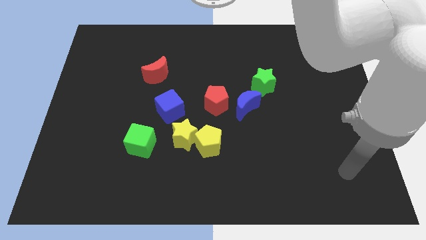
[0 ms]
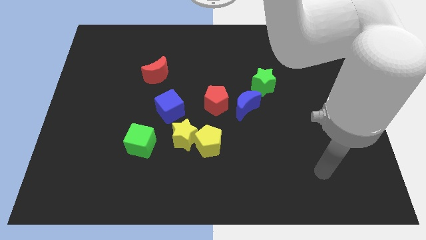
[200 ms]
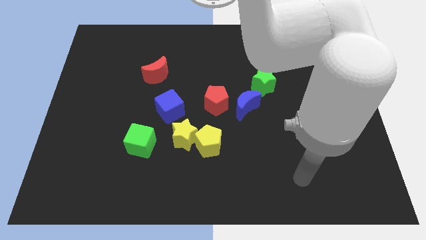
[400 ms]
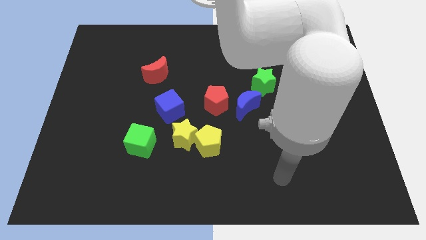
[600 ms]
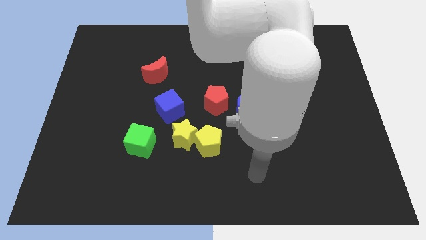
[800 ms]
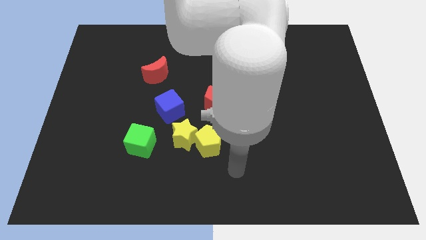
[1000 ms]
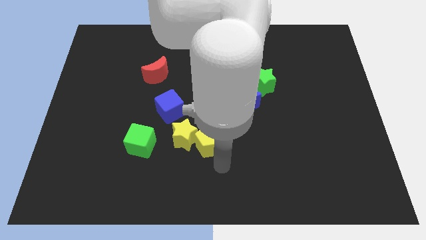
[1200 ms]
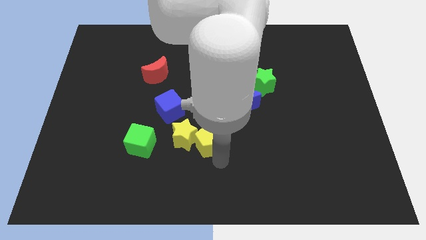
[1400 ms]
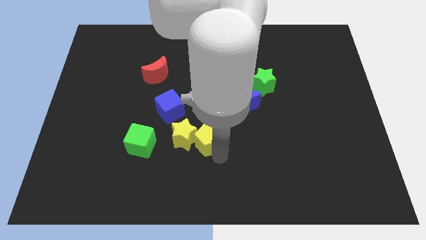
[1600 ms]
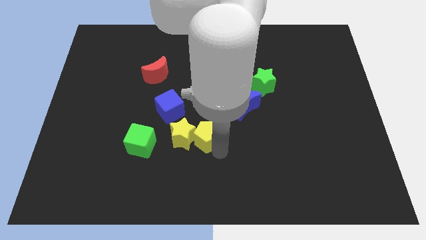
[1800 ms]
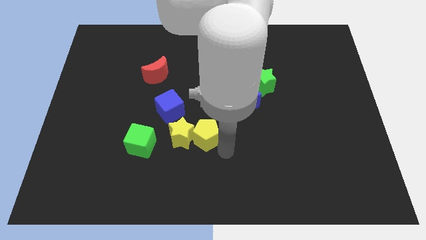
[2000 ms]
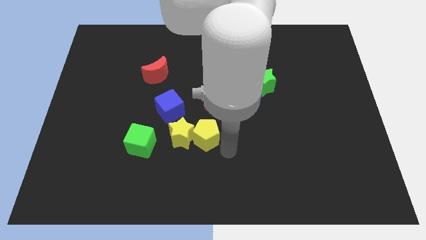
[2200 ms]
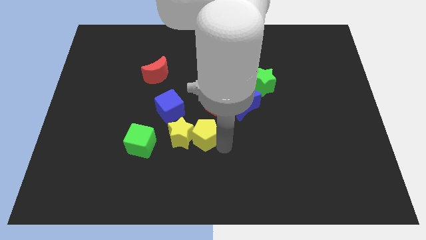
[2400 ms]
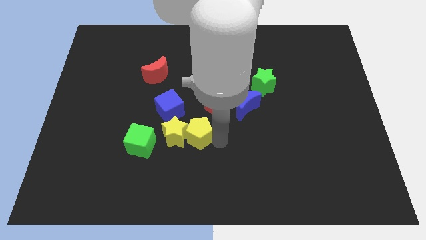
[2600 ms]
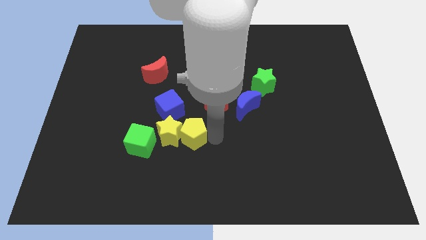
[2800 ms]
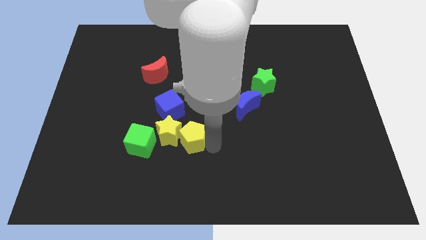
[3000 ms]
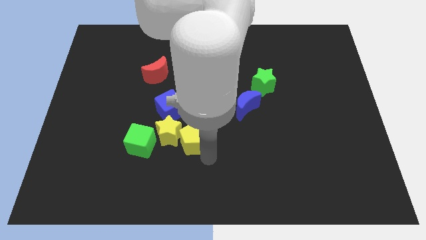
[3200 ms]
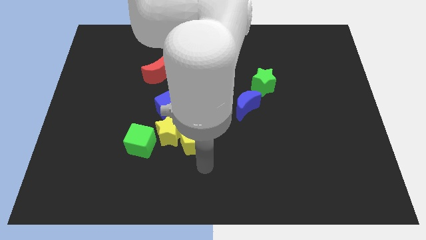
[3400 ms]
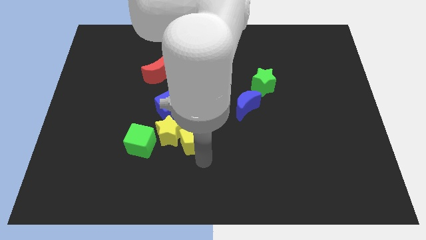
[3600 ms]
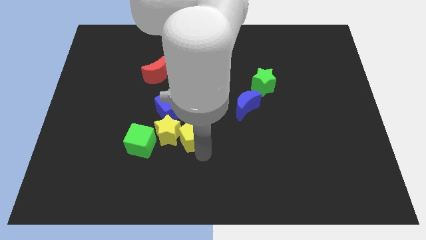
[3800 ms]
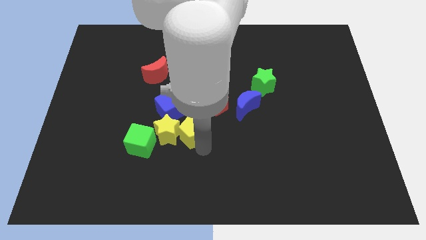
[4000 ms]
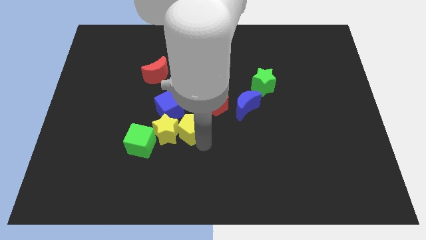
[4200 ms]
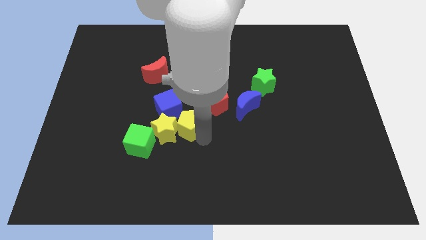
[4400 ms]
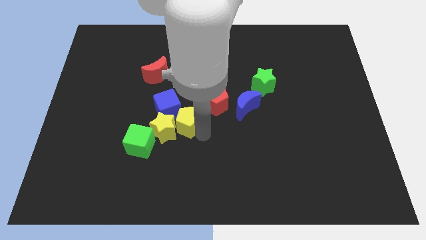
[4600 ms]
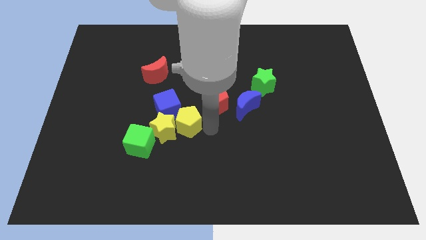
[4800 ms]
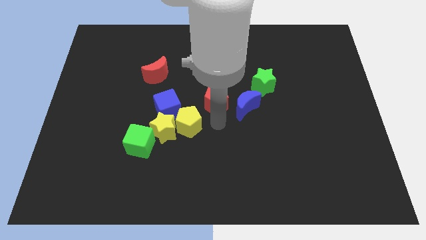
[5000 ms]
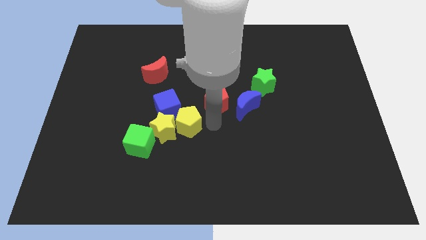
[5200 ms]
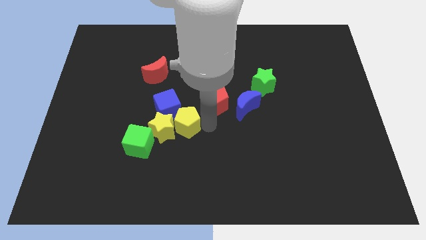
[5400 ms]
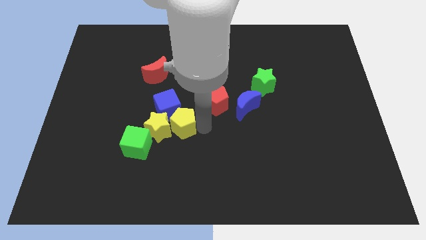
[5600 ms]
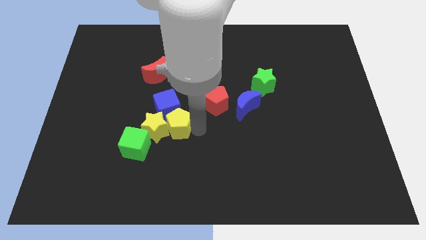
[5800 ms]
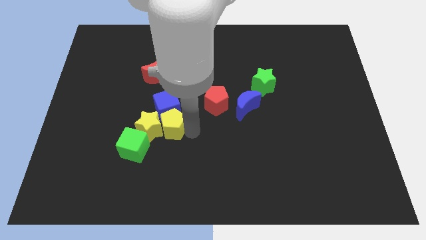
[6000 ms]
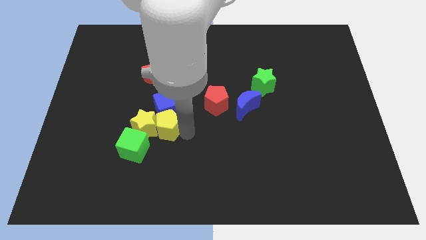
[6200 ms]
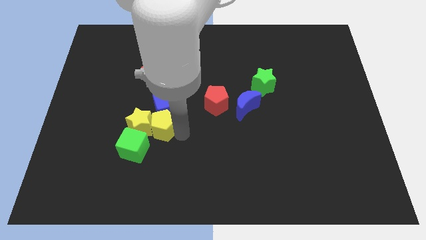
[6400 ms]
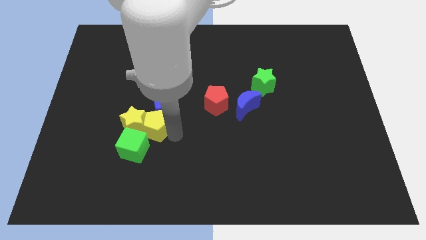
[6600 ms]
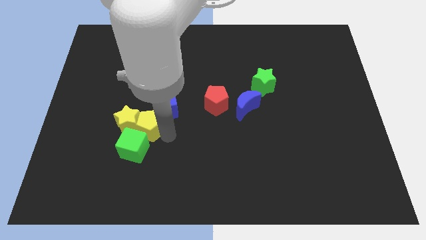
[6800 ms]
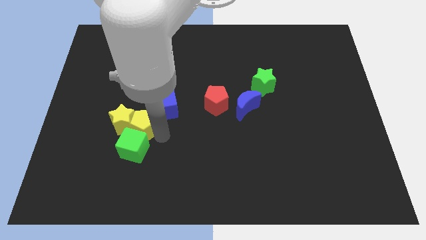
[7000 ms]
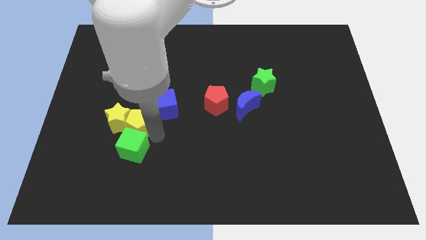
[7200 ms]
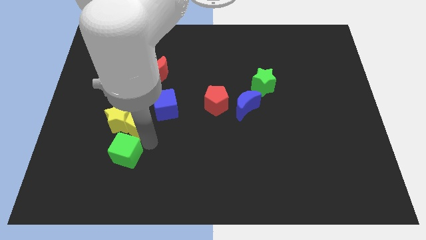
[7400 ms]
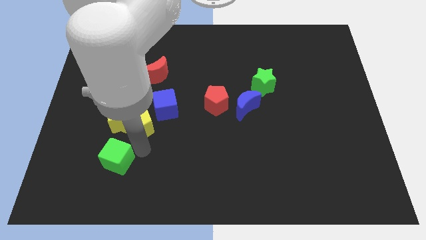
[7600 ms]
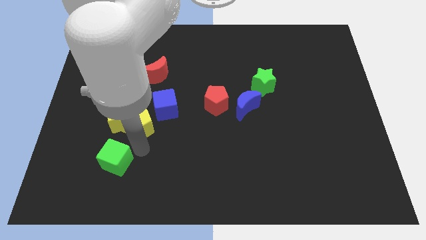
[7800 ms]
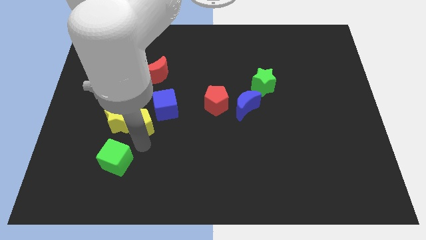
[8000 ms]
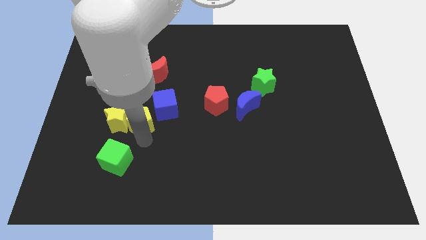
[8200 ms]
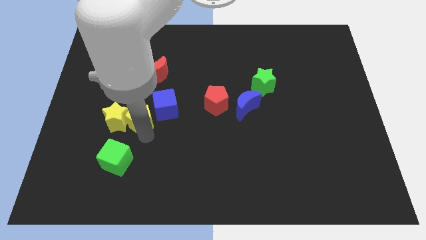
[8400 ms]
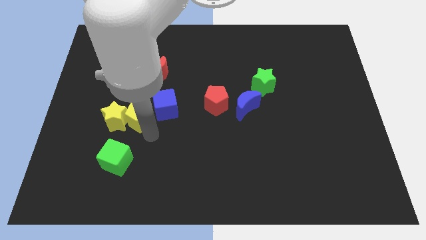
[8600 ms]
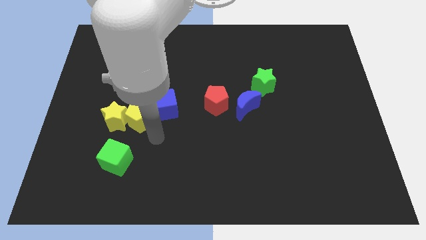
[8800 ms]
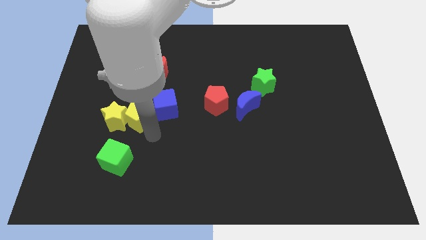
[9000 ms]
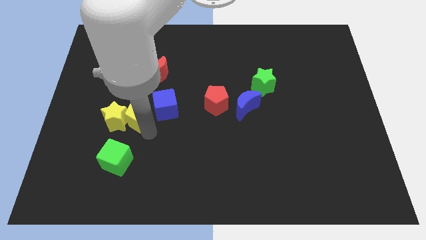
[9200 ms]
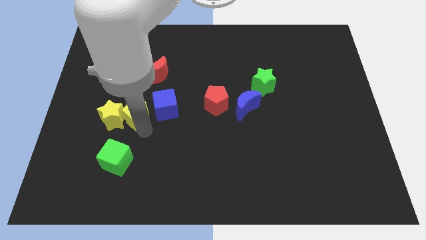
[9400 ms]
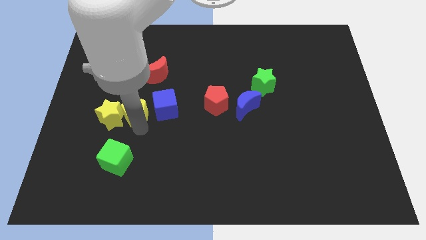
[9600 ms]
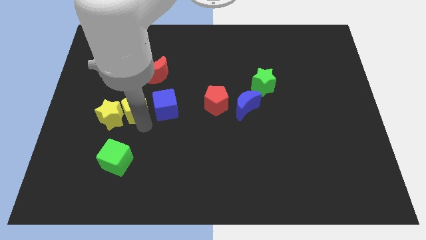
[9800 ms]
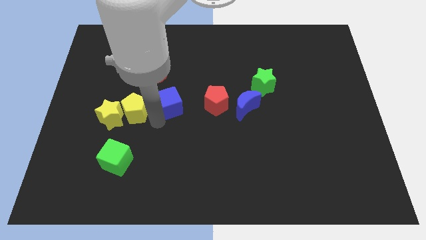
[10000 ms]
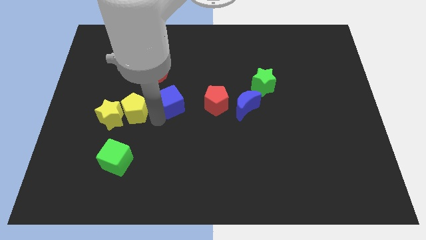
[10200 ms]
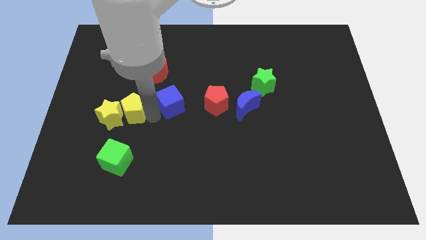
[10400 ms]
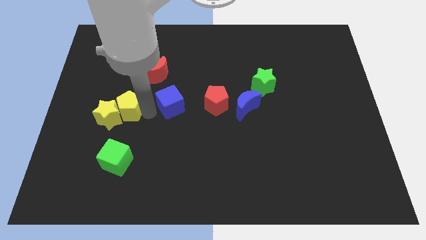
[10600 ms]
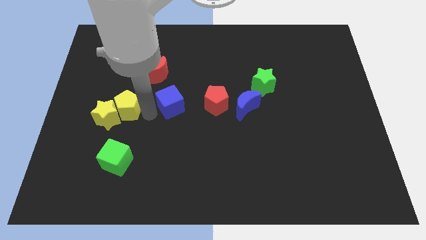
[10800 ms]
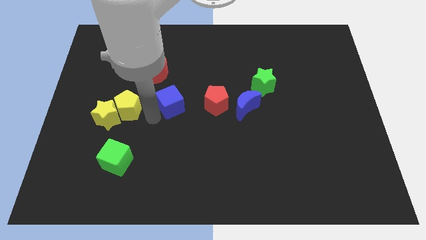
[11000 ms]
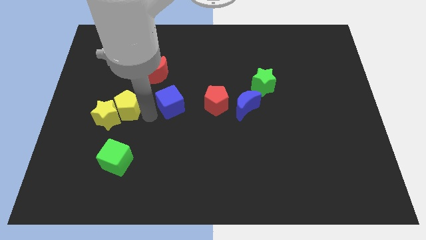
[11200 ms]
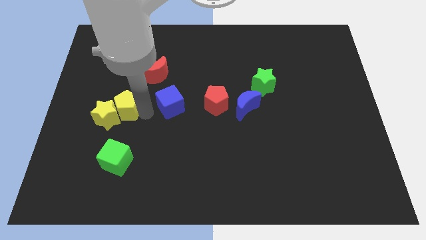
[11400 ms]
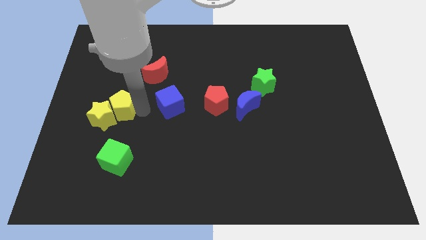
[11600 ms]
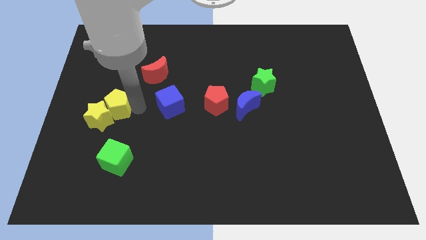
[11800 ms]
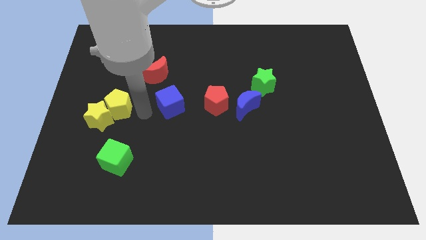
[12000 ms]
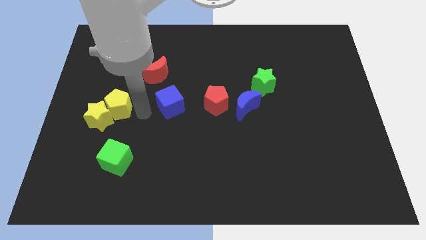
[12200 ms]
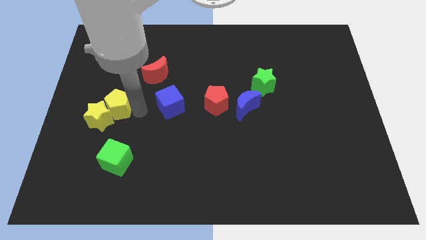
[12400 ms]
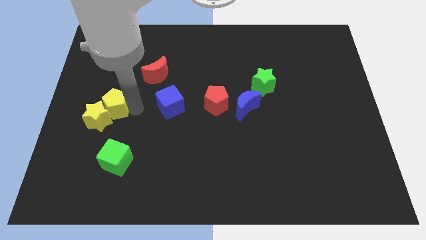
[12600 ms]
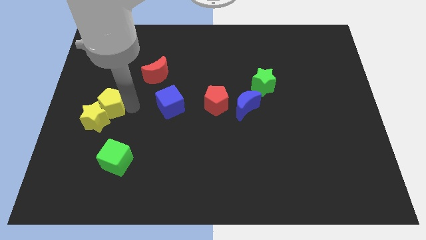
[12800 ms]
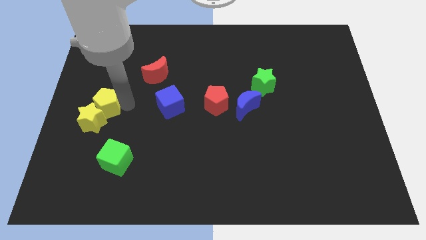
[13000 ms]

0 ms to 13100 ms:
slide the yellow pentagon to the left side of the board
